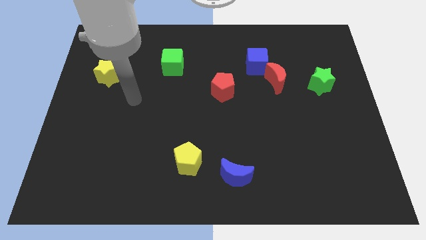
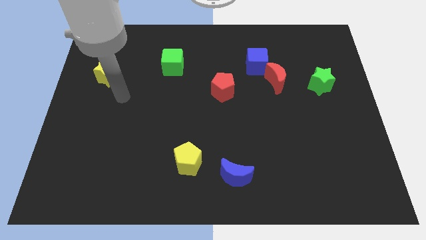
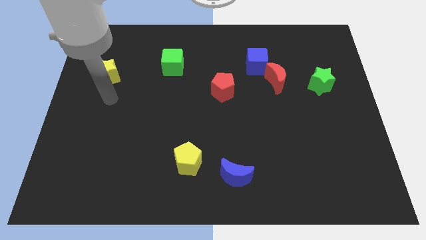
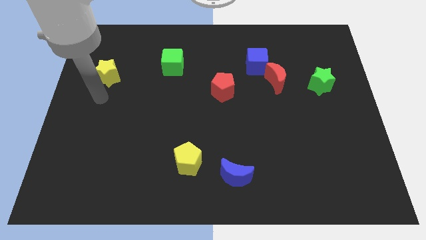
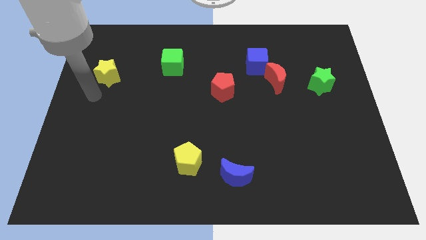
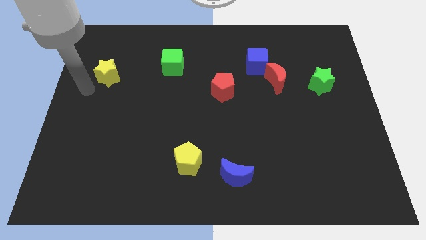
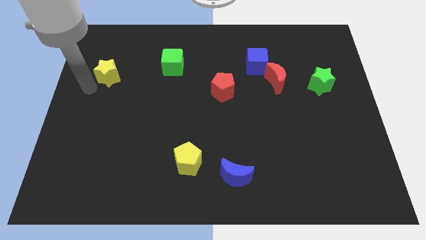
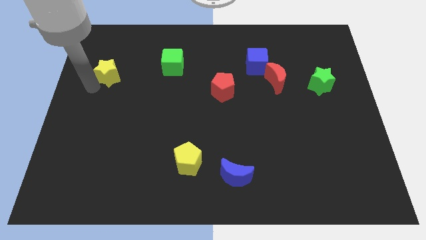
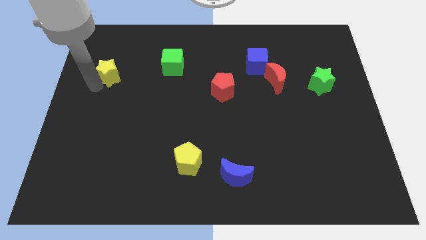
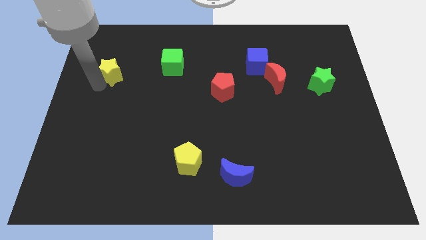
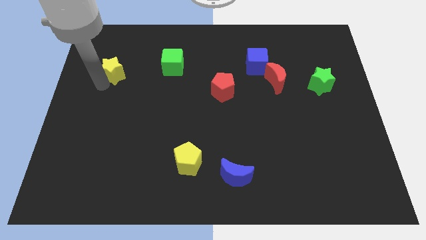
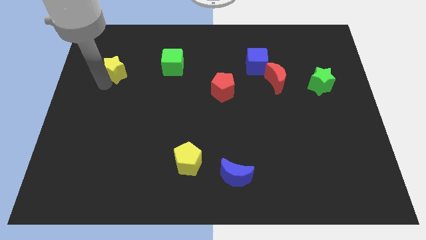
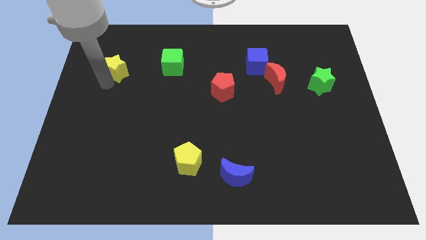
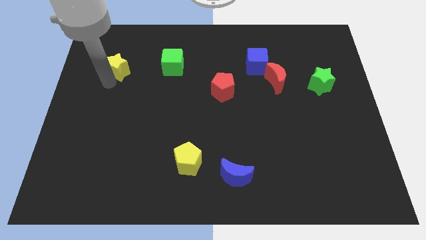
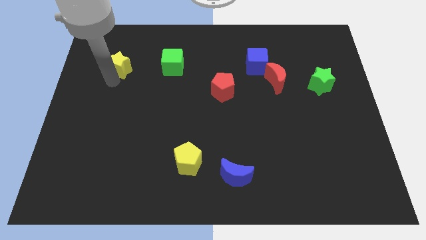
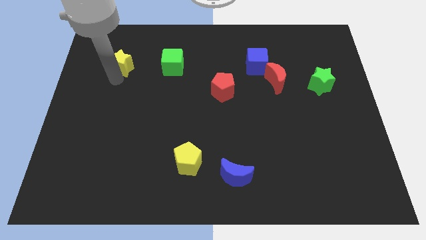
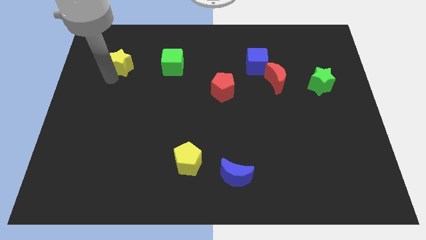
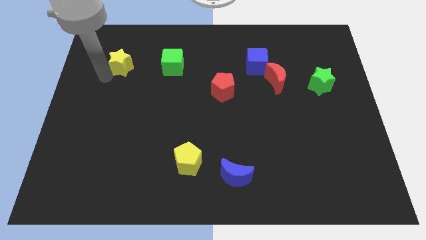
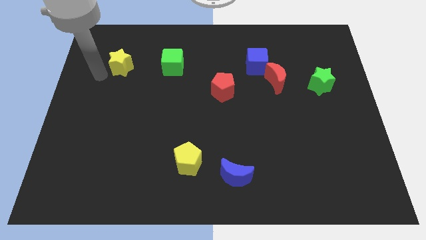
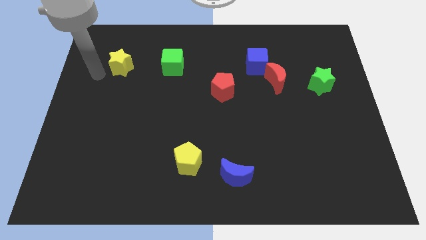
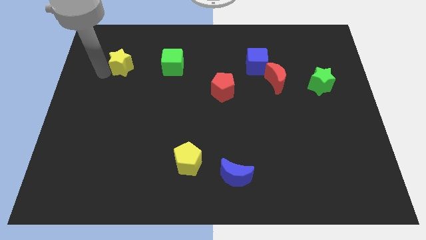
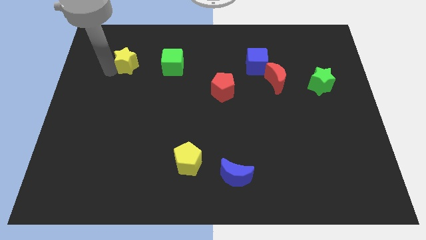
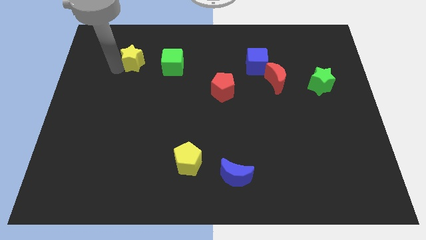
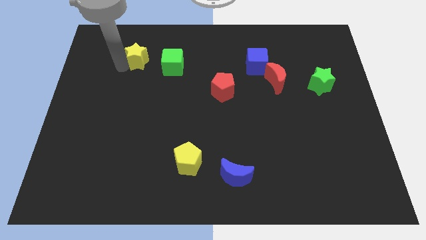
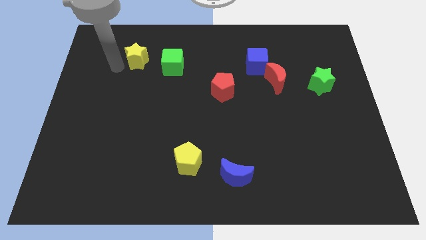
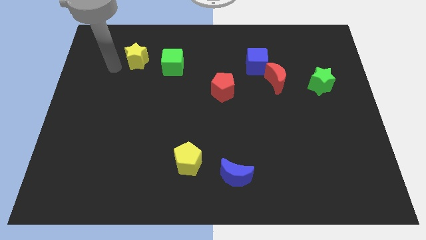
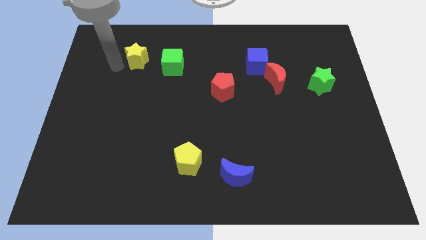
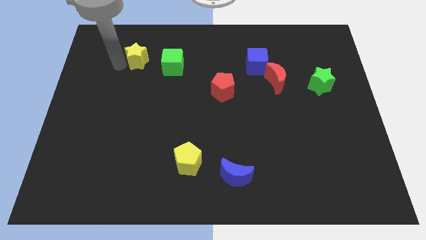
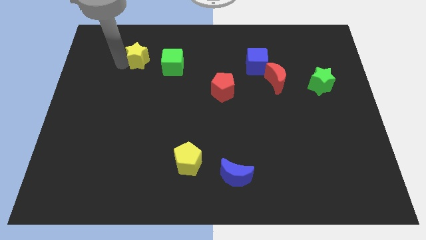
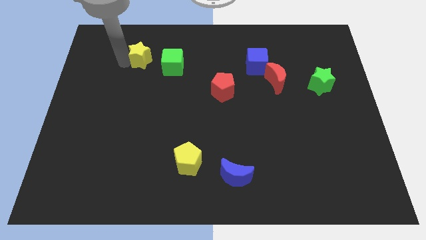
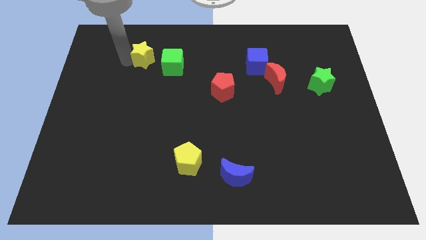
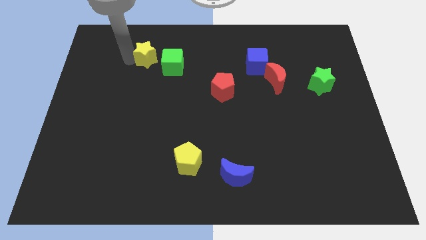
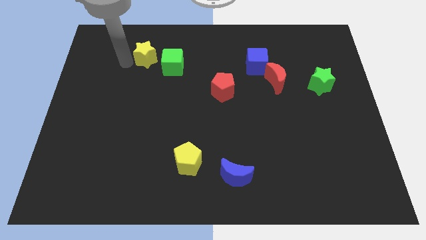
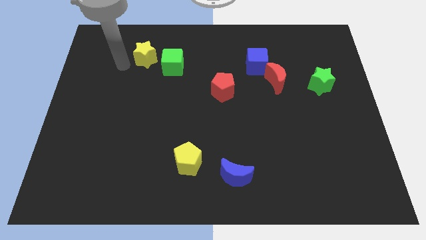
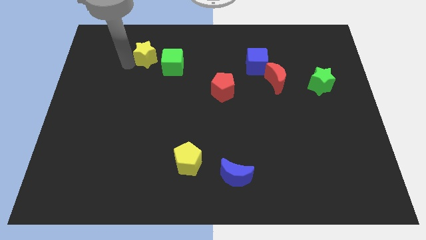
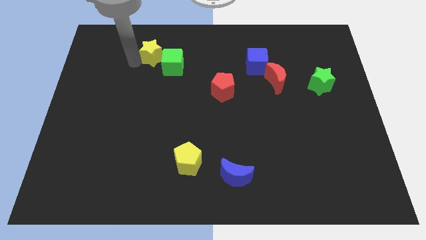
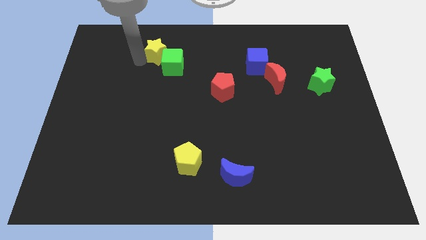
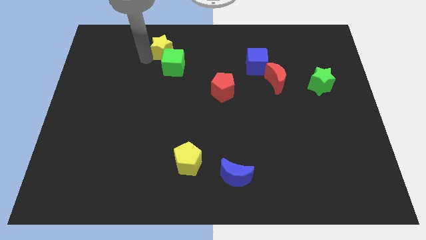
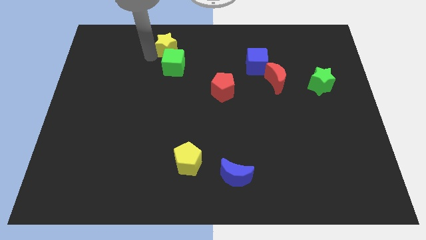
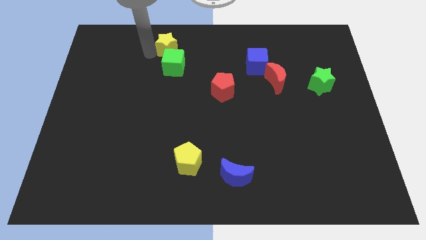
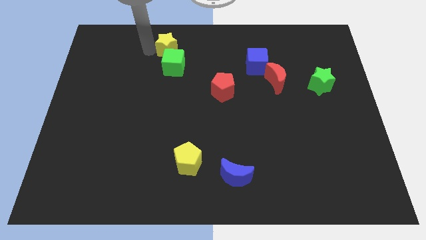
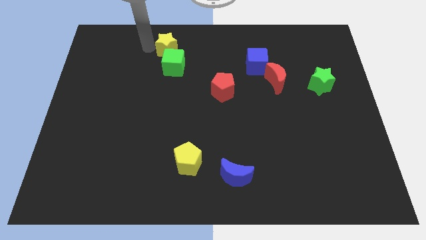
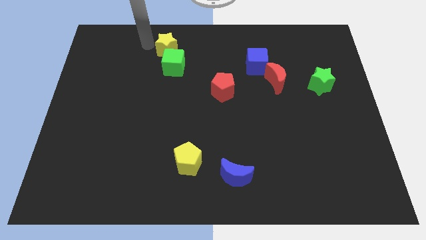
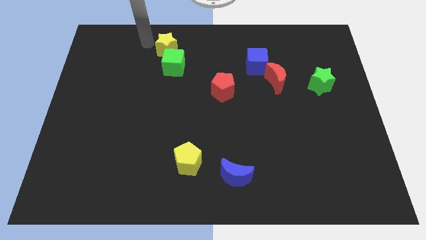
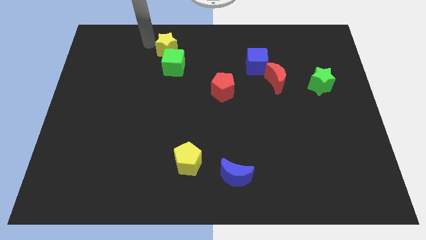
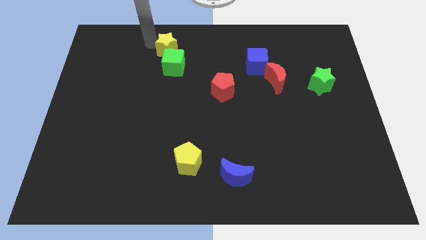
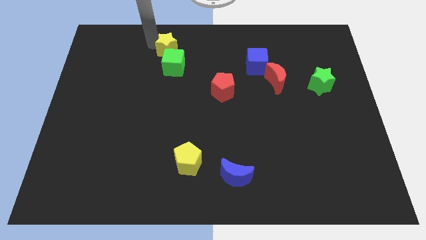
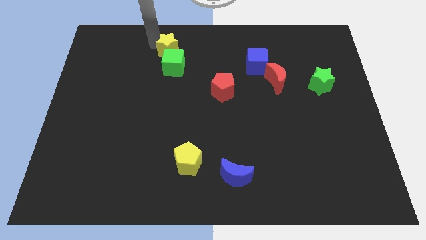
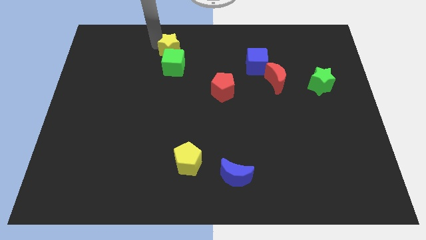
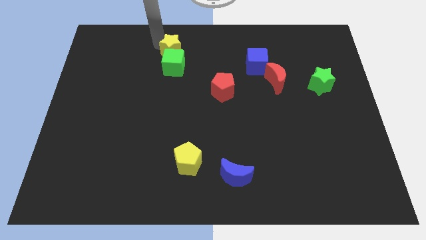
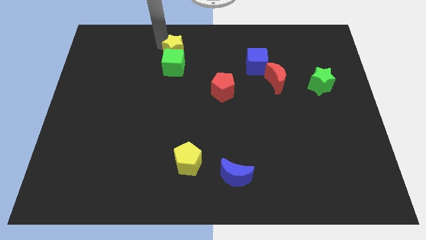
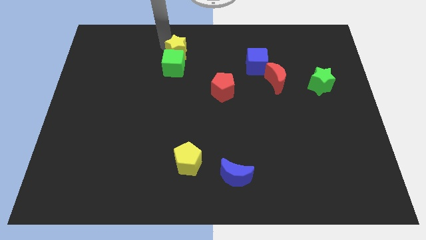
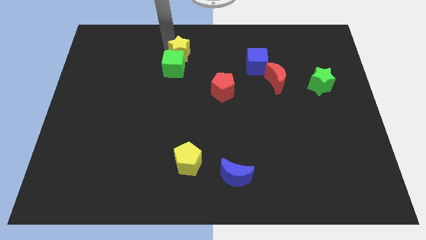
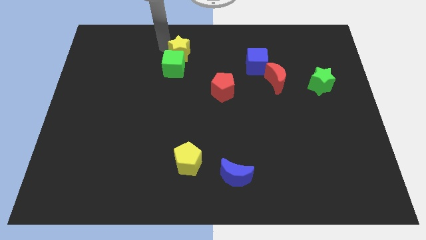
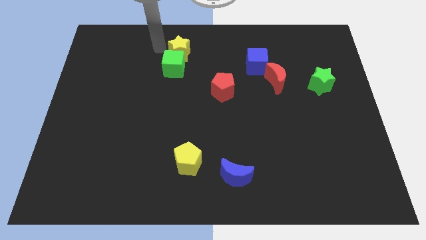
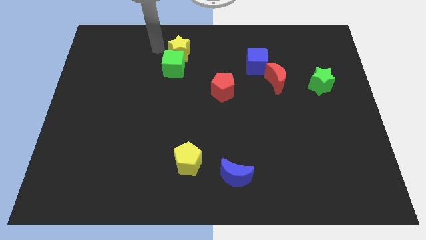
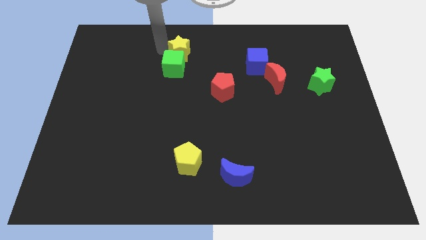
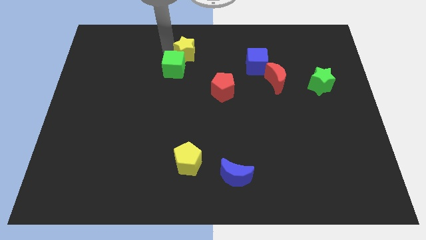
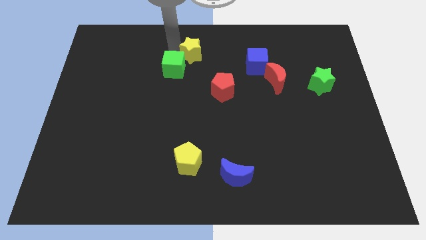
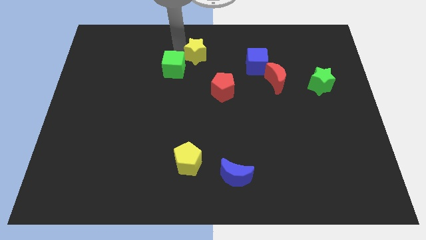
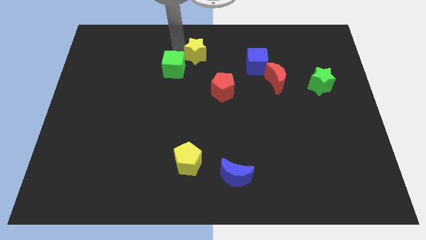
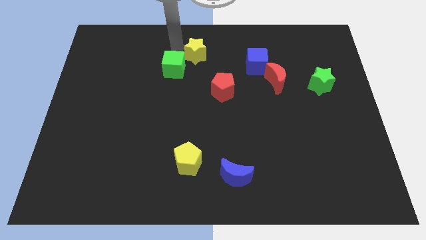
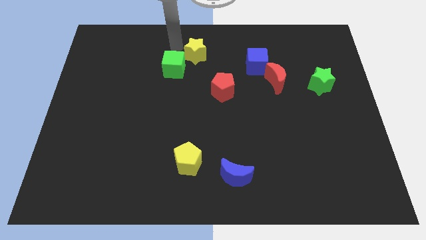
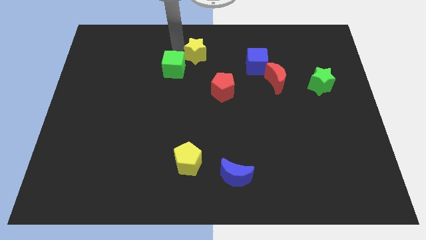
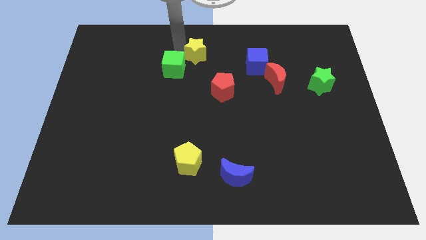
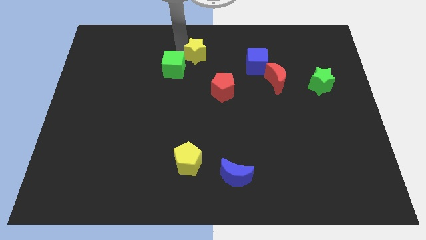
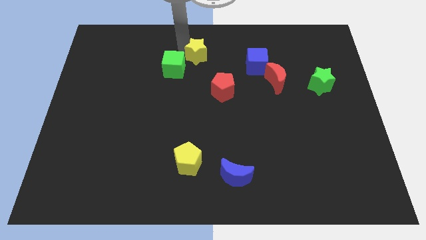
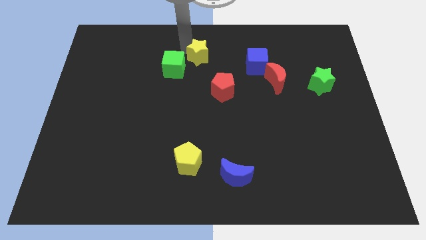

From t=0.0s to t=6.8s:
push the yellow star left of the blue cube

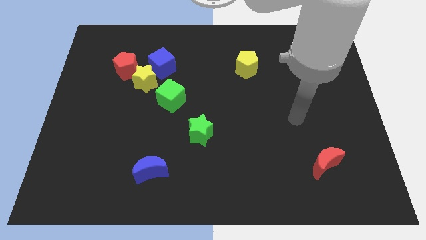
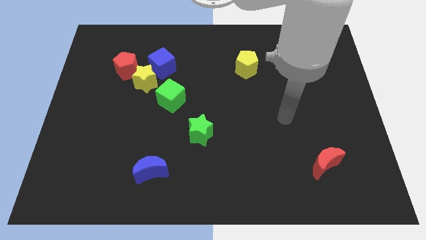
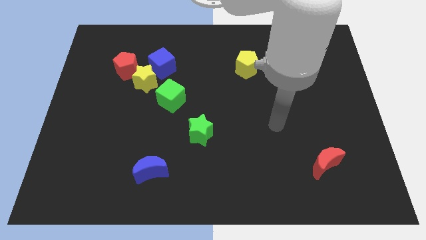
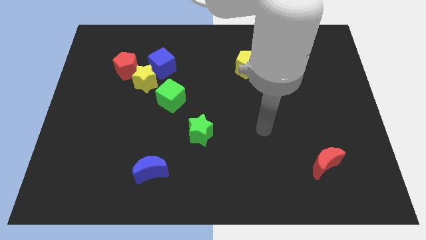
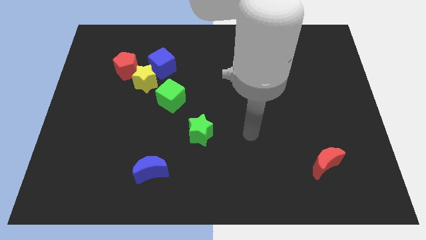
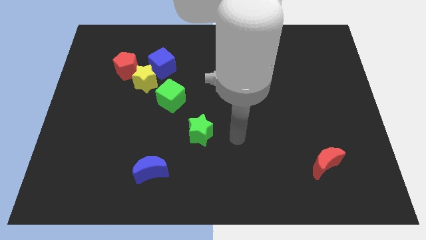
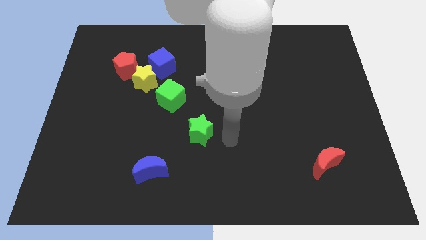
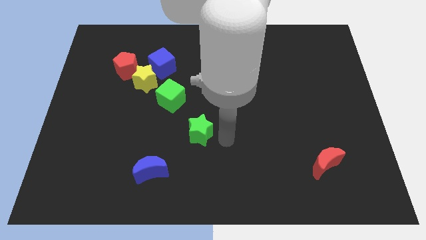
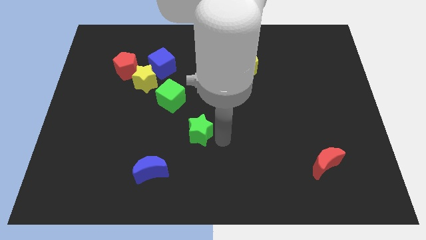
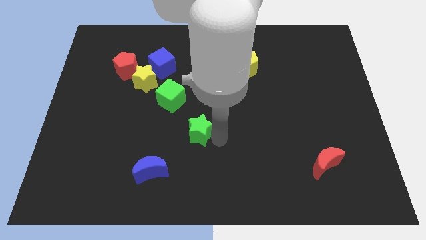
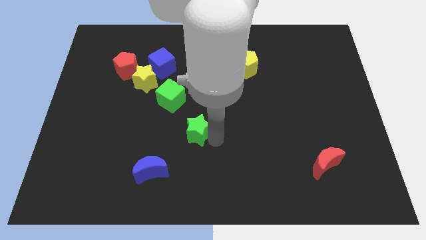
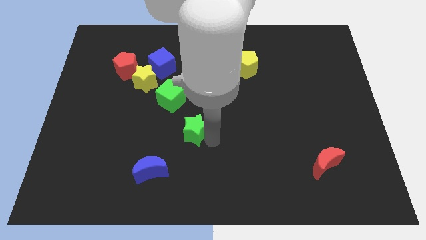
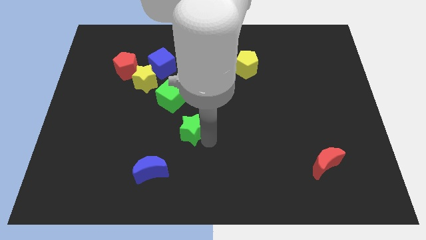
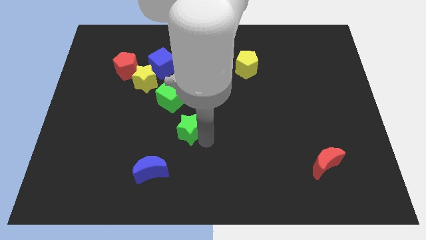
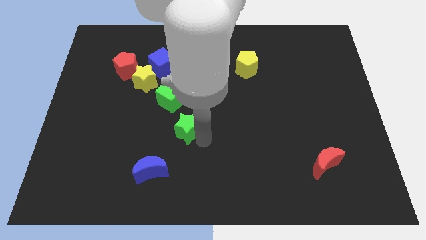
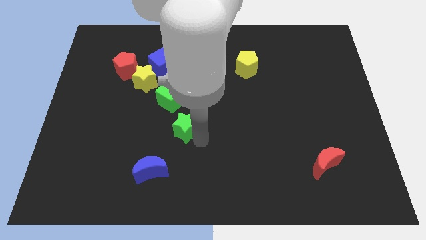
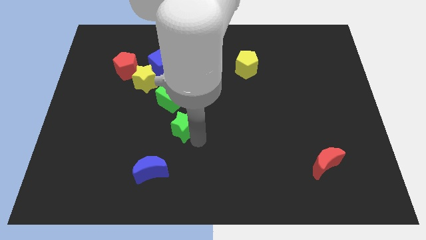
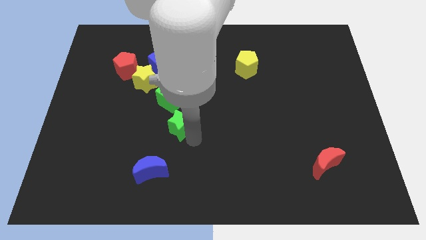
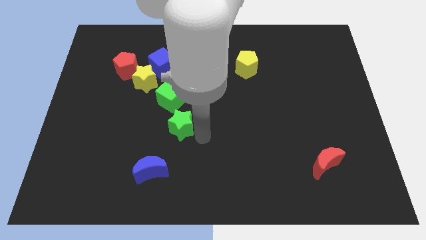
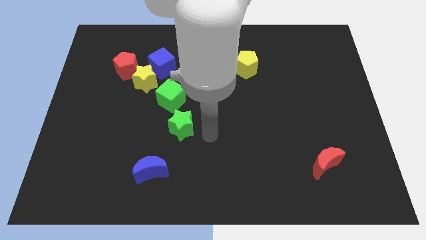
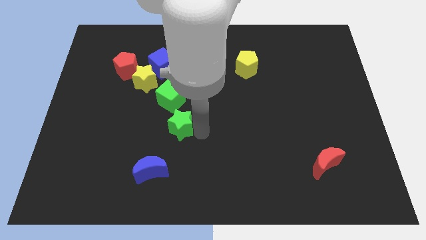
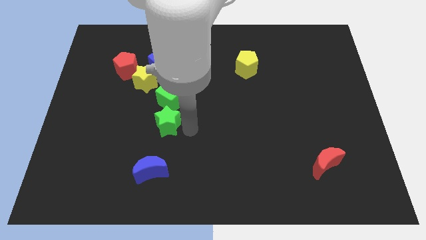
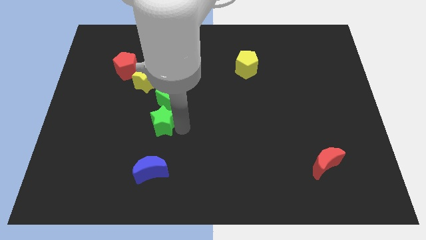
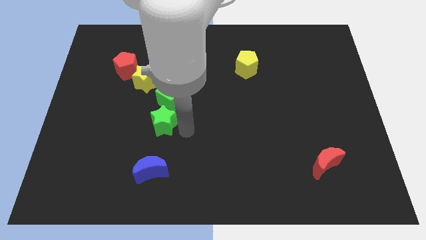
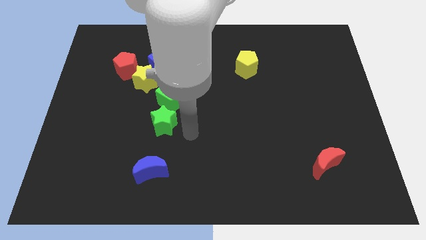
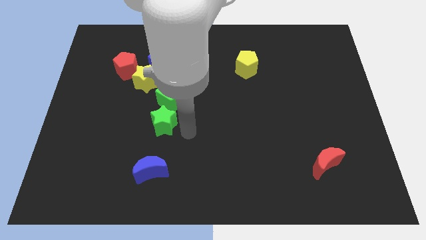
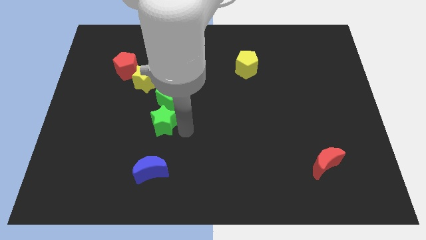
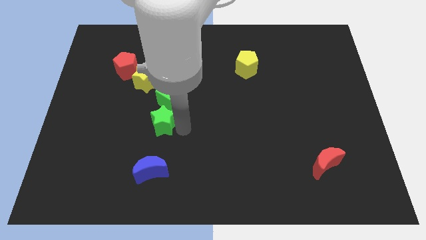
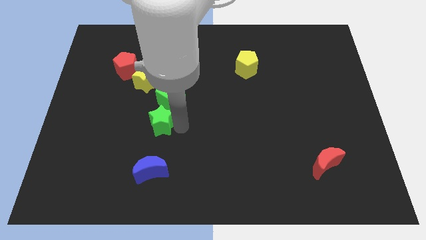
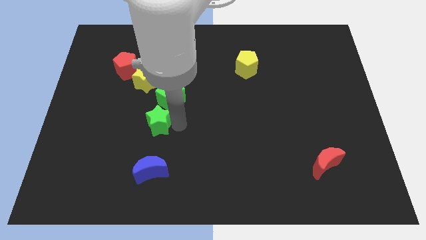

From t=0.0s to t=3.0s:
put the green star below the yellow star
